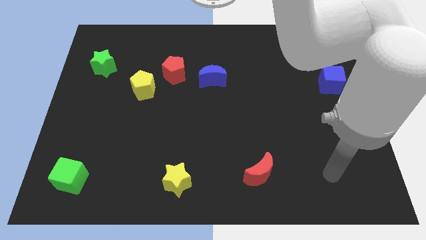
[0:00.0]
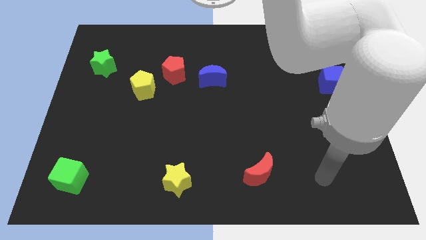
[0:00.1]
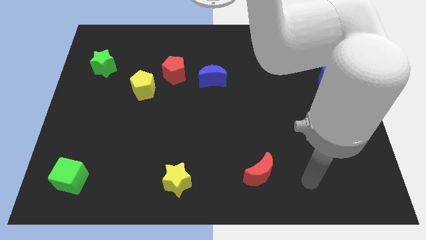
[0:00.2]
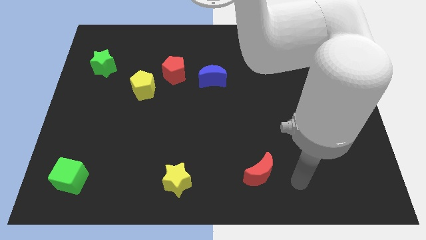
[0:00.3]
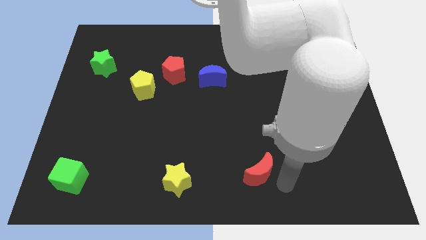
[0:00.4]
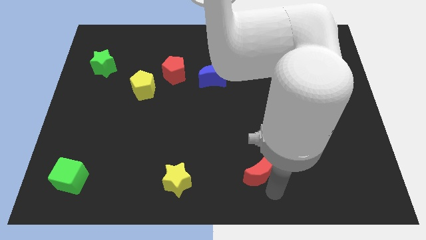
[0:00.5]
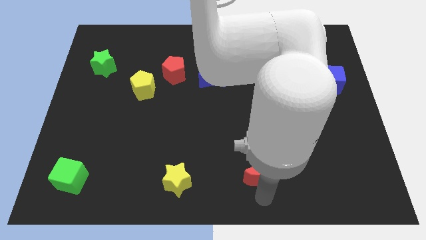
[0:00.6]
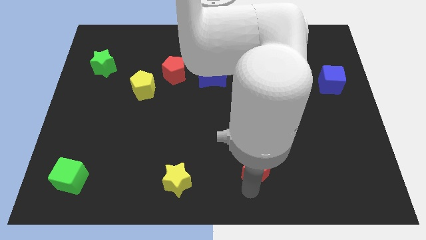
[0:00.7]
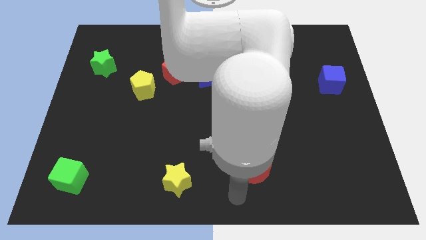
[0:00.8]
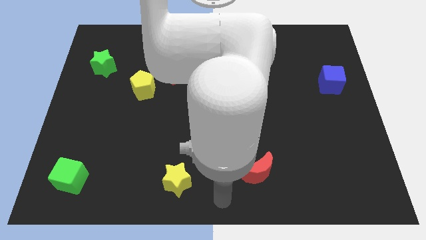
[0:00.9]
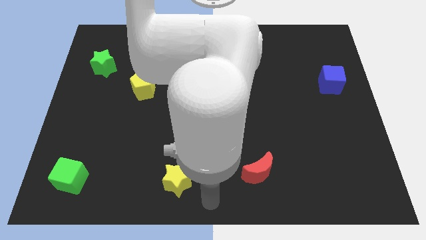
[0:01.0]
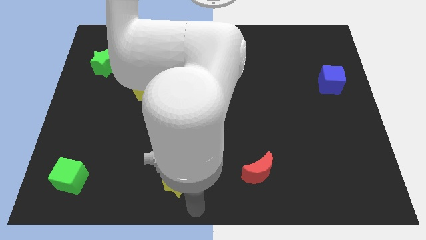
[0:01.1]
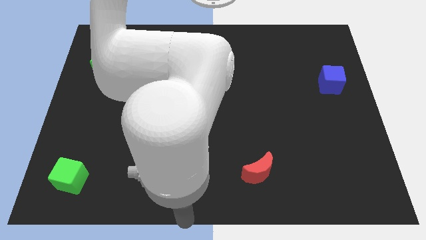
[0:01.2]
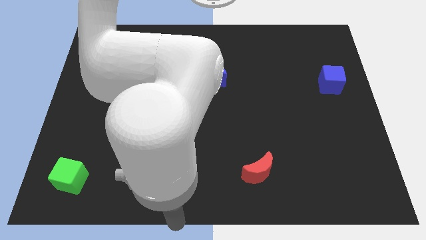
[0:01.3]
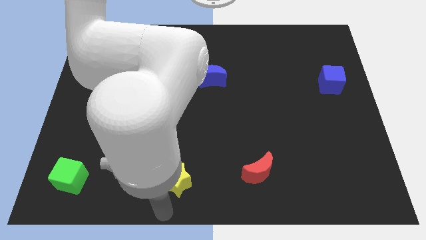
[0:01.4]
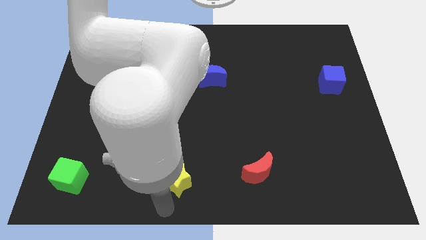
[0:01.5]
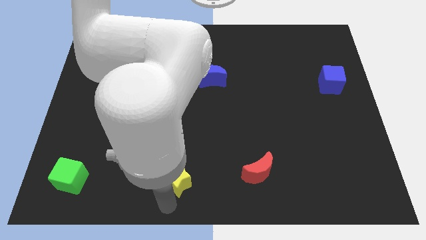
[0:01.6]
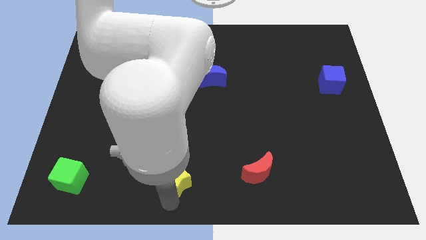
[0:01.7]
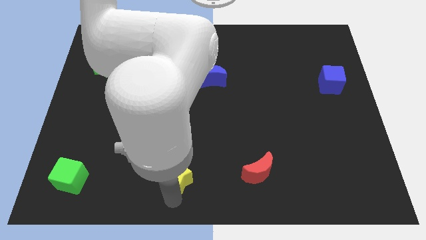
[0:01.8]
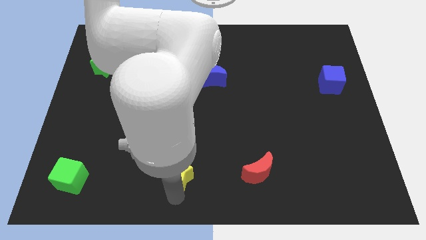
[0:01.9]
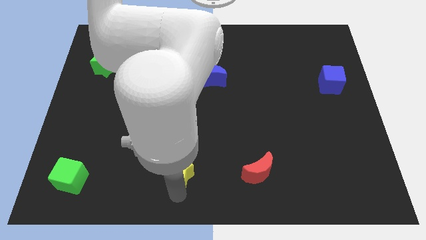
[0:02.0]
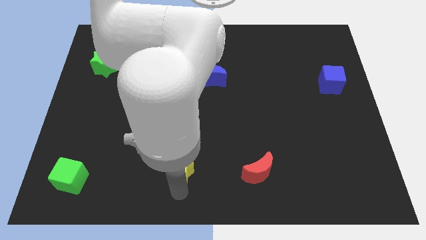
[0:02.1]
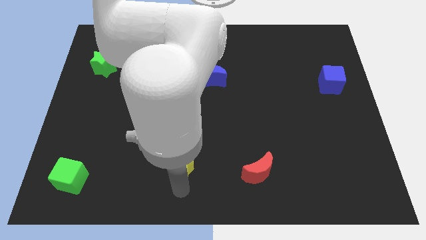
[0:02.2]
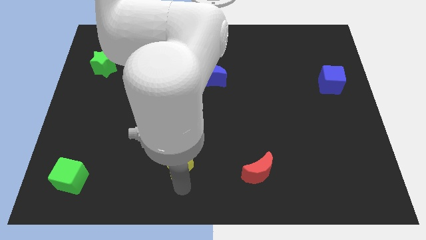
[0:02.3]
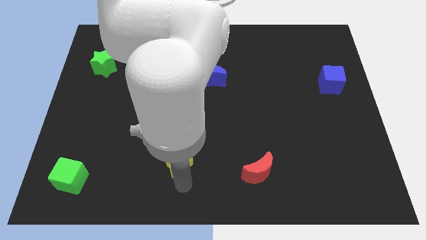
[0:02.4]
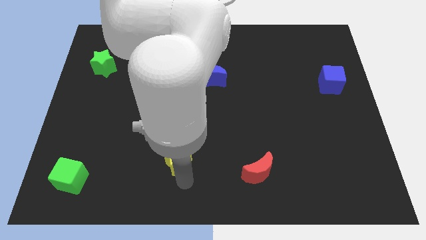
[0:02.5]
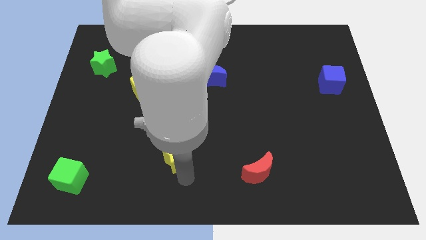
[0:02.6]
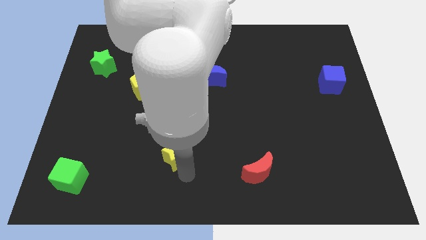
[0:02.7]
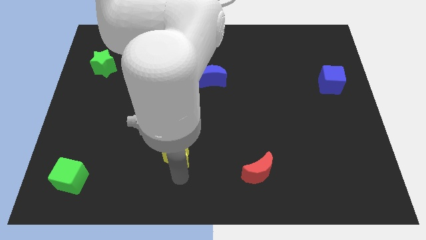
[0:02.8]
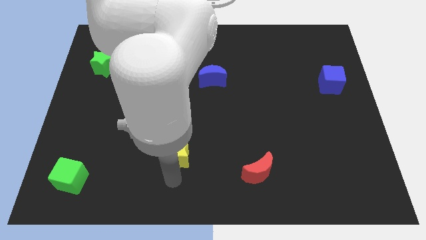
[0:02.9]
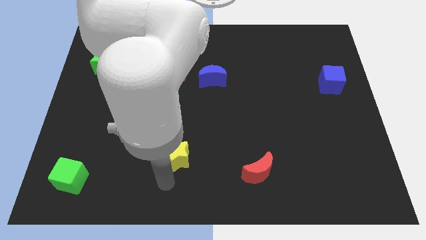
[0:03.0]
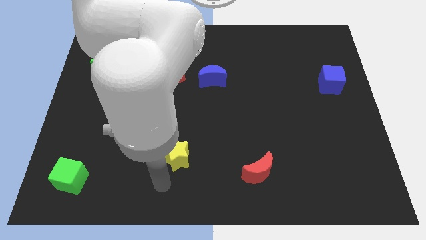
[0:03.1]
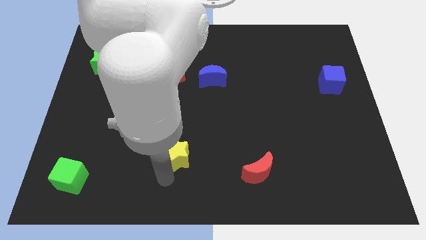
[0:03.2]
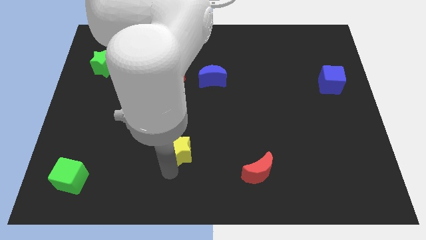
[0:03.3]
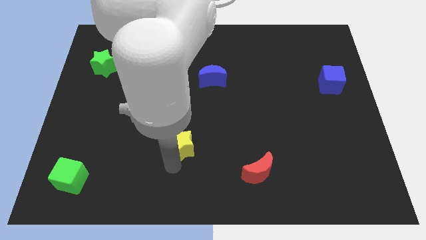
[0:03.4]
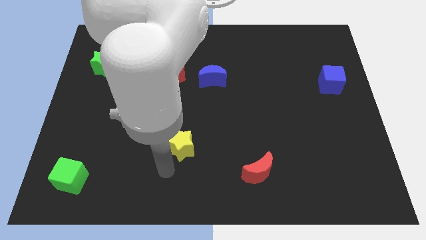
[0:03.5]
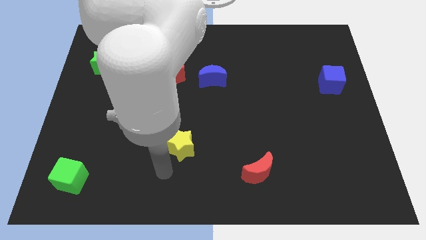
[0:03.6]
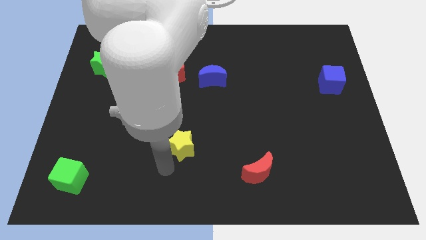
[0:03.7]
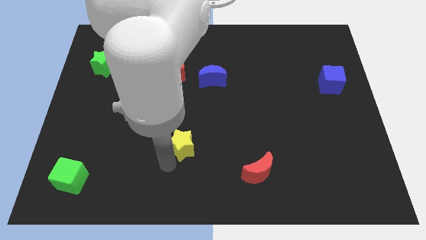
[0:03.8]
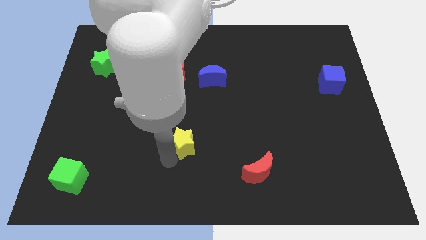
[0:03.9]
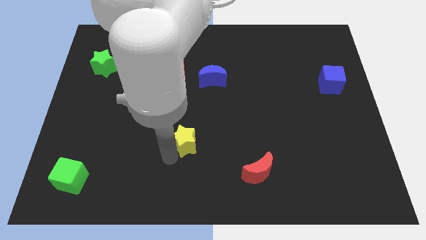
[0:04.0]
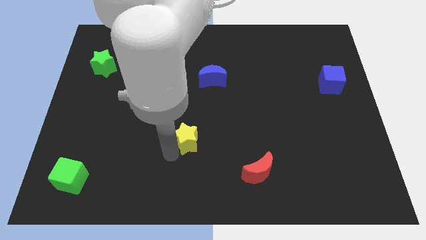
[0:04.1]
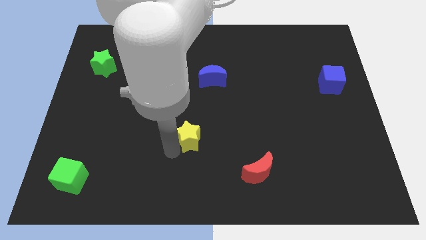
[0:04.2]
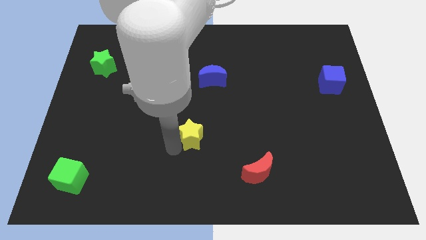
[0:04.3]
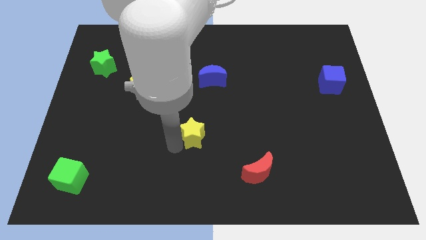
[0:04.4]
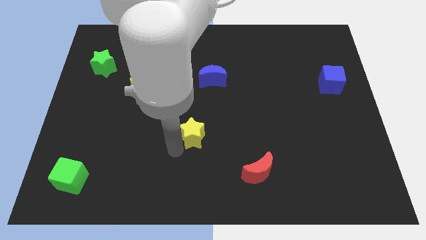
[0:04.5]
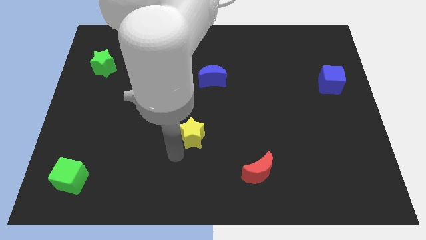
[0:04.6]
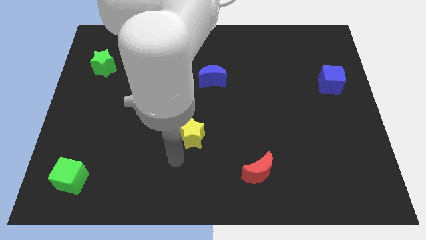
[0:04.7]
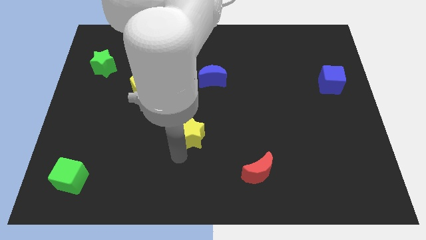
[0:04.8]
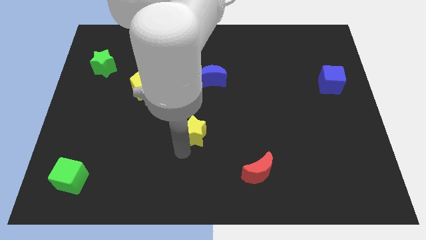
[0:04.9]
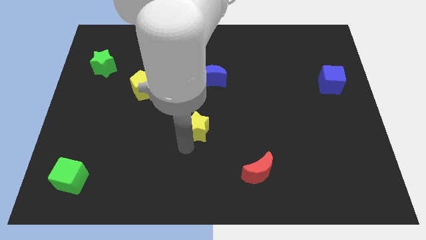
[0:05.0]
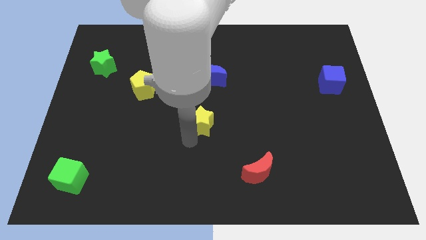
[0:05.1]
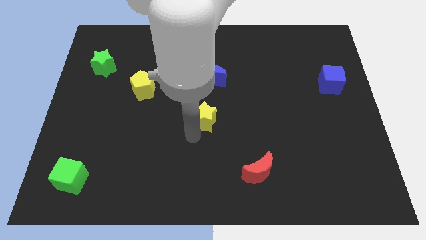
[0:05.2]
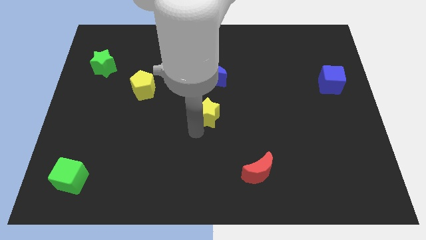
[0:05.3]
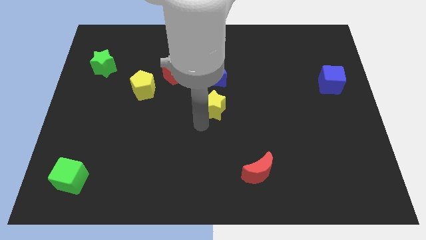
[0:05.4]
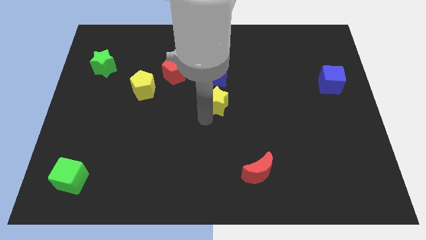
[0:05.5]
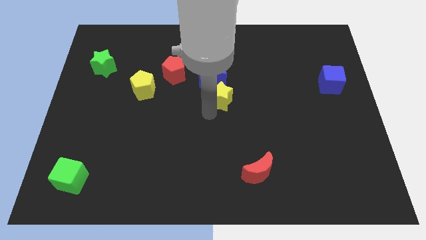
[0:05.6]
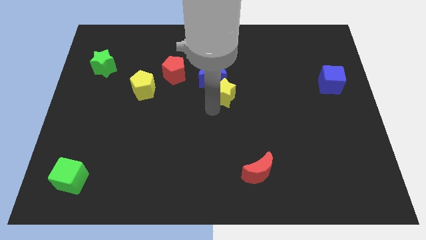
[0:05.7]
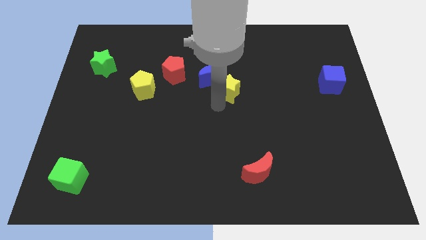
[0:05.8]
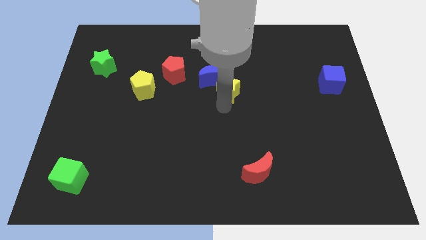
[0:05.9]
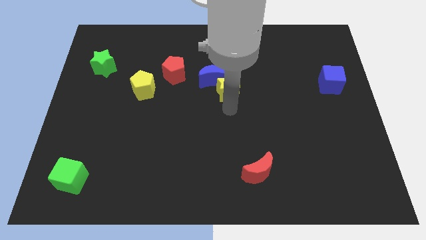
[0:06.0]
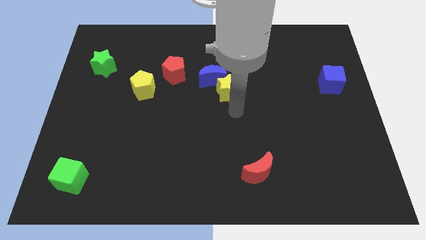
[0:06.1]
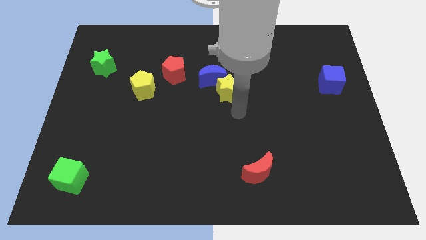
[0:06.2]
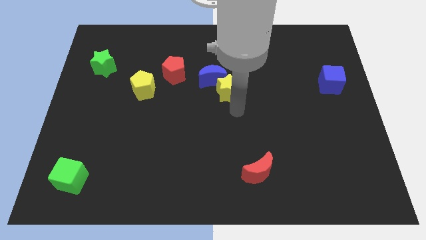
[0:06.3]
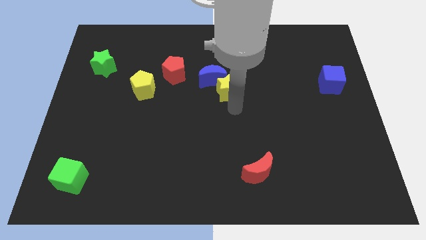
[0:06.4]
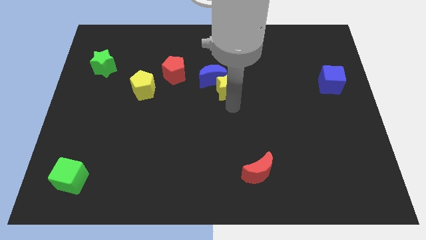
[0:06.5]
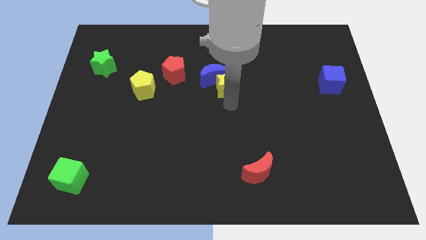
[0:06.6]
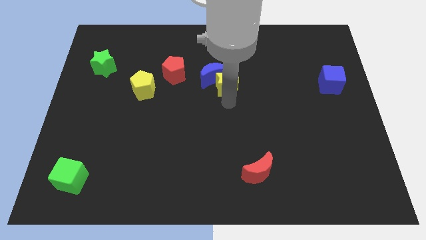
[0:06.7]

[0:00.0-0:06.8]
move the yellow star to the right of the red pentagon

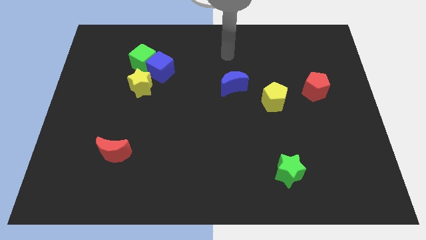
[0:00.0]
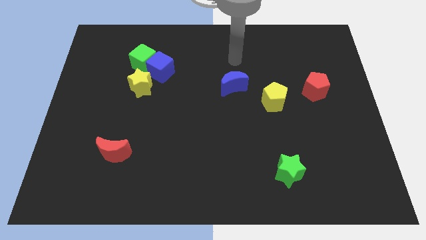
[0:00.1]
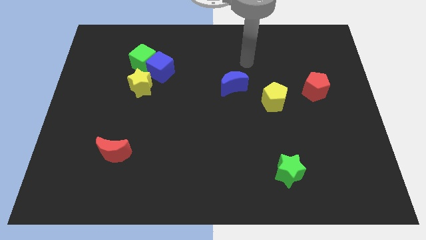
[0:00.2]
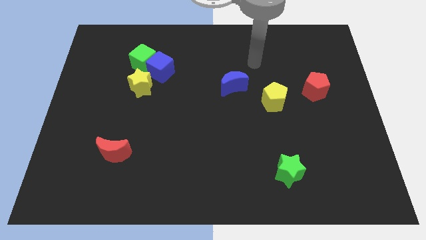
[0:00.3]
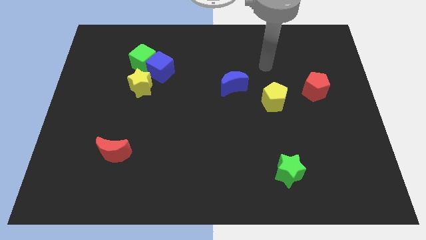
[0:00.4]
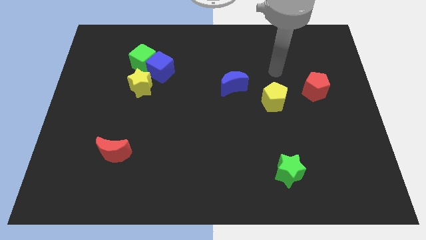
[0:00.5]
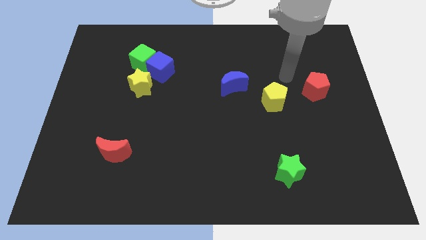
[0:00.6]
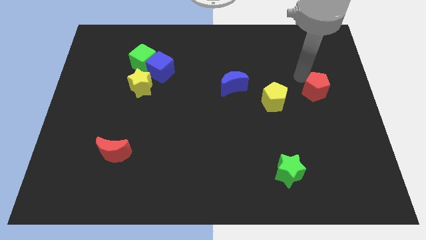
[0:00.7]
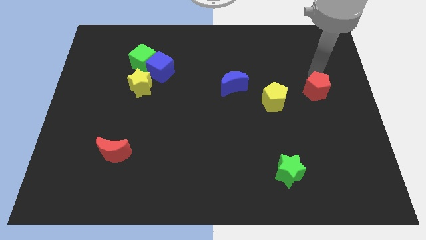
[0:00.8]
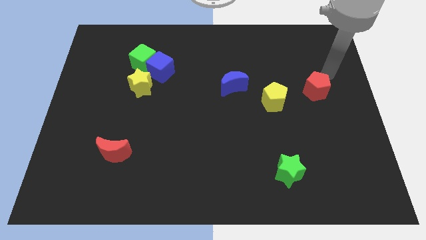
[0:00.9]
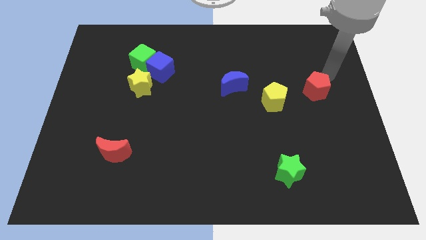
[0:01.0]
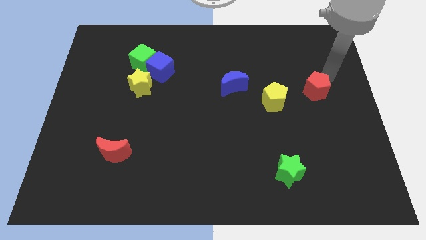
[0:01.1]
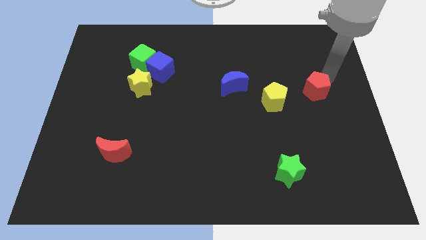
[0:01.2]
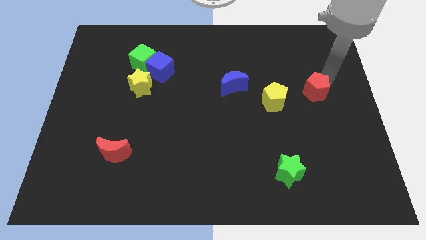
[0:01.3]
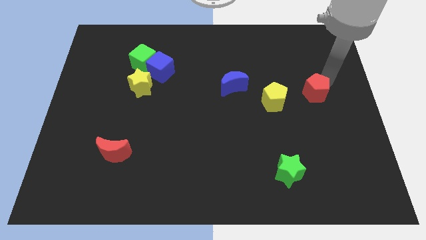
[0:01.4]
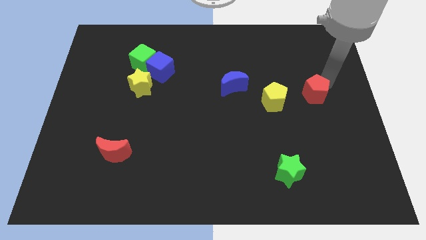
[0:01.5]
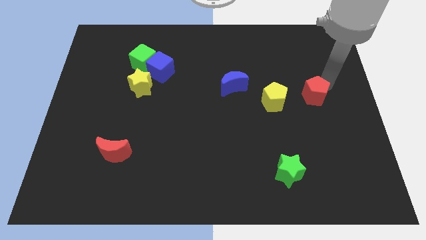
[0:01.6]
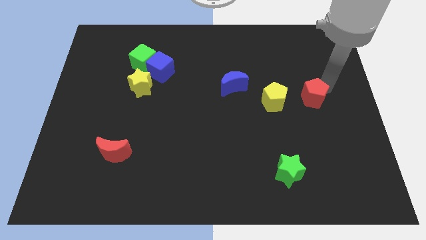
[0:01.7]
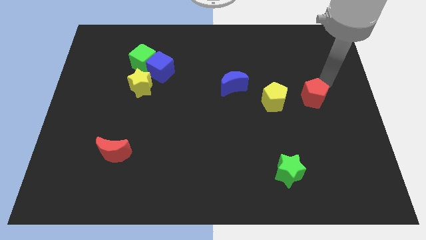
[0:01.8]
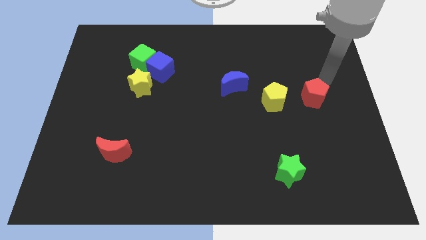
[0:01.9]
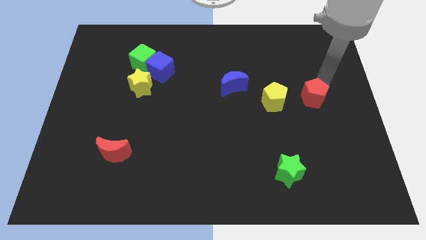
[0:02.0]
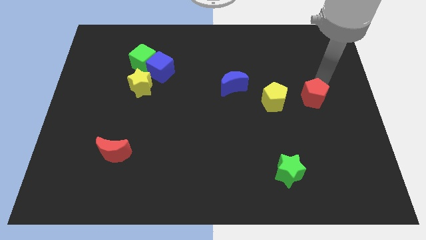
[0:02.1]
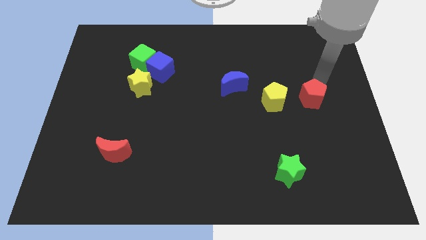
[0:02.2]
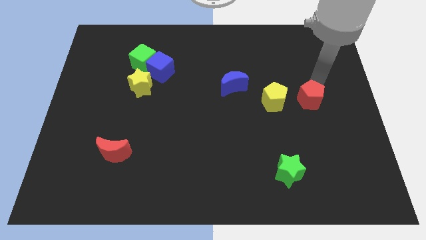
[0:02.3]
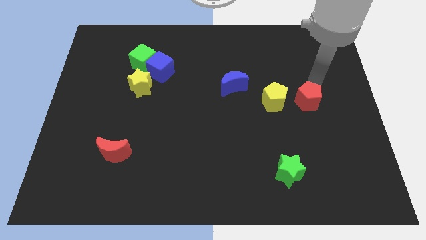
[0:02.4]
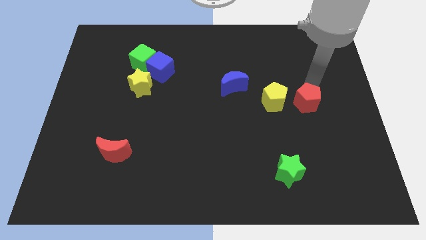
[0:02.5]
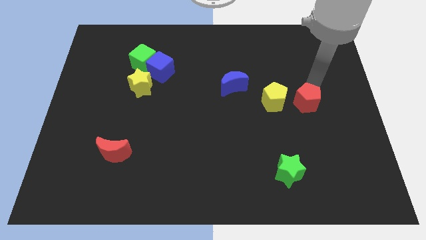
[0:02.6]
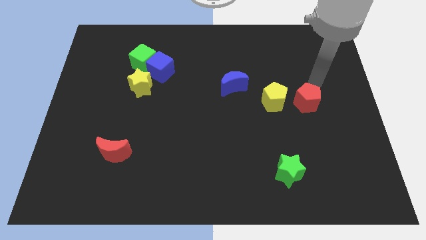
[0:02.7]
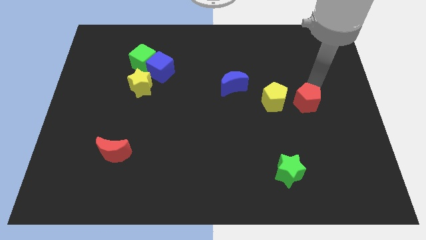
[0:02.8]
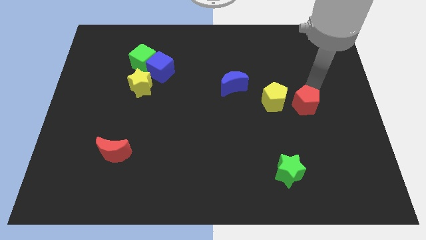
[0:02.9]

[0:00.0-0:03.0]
push the red pentagon to the bottom right of the yellow pentagon
